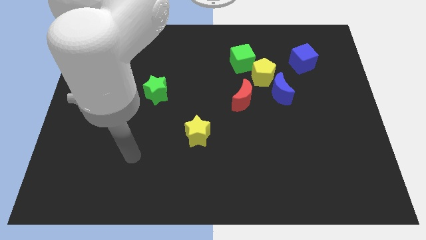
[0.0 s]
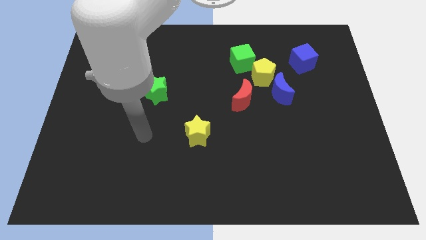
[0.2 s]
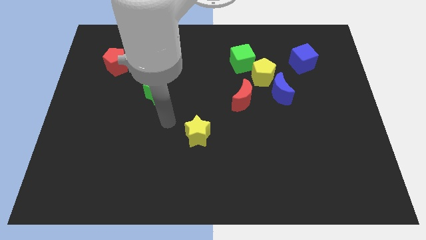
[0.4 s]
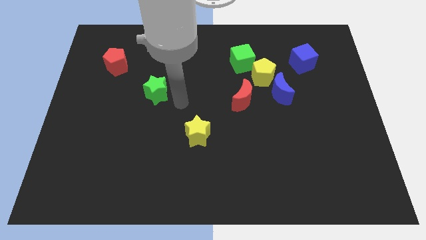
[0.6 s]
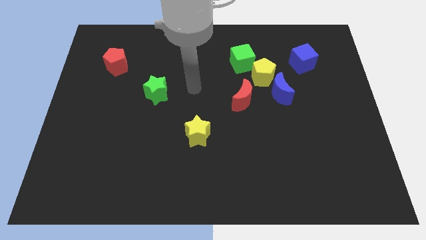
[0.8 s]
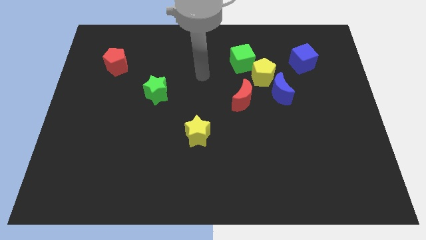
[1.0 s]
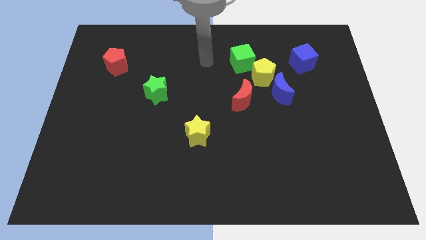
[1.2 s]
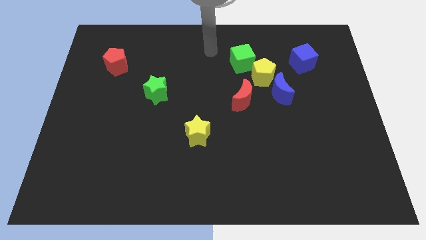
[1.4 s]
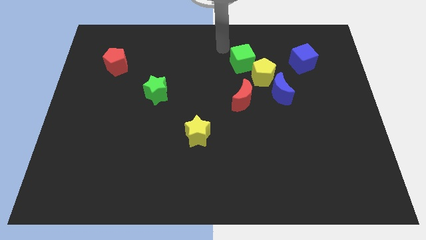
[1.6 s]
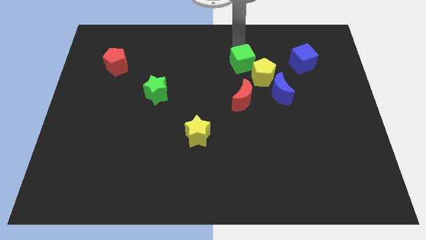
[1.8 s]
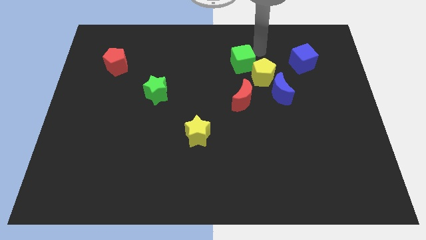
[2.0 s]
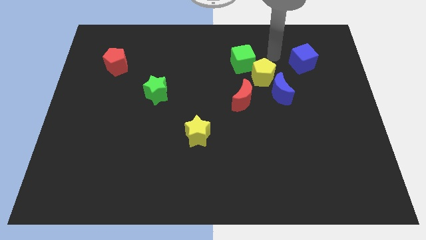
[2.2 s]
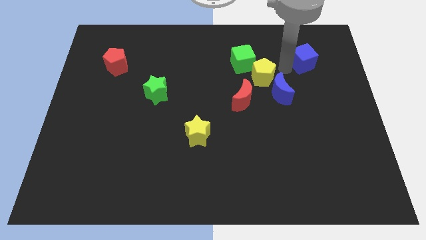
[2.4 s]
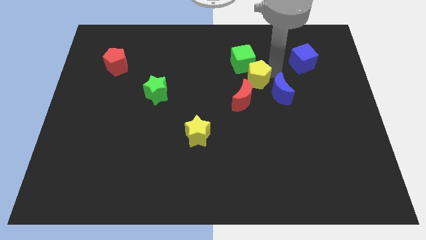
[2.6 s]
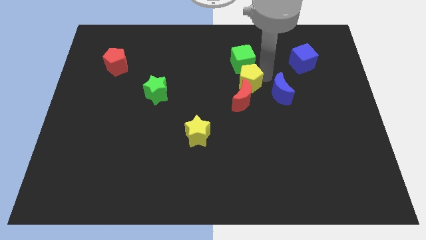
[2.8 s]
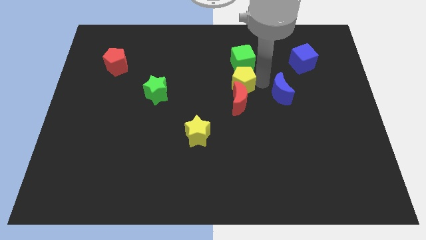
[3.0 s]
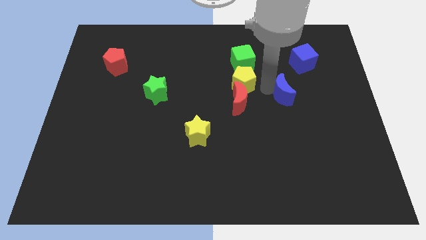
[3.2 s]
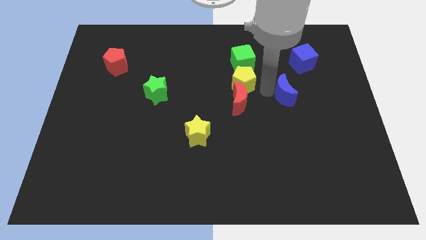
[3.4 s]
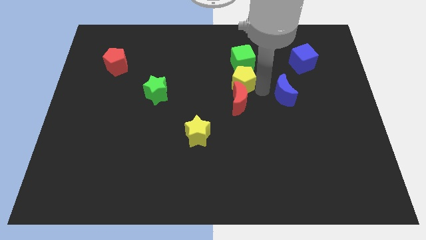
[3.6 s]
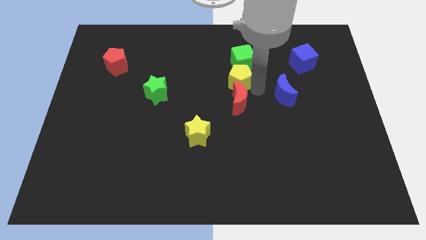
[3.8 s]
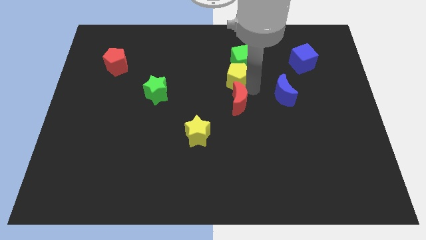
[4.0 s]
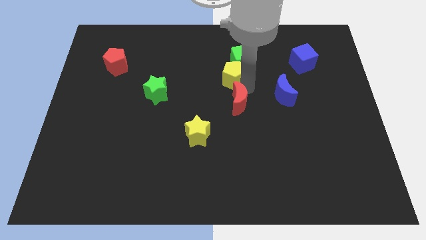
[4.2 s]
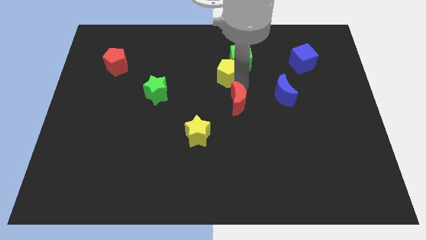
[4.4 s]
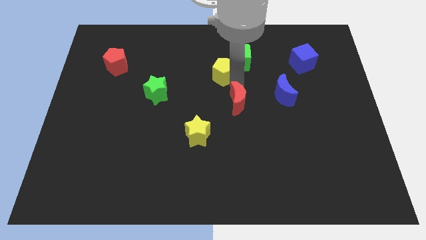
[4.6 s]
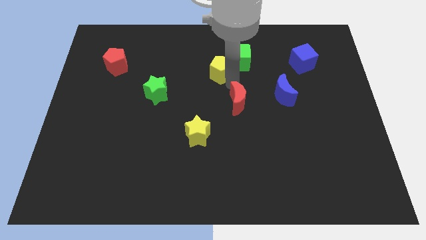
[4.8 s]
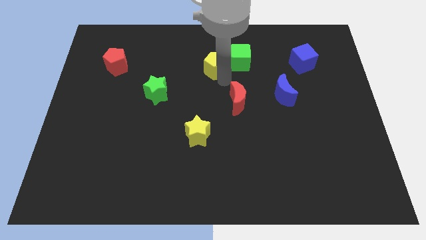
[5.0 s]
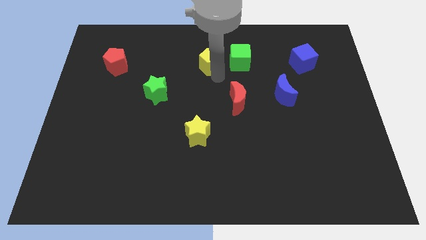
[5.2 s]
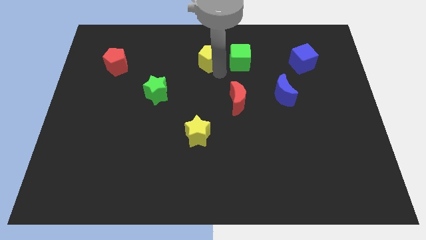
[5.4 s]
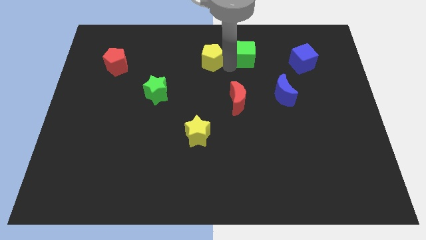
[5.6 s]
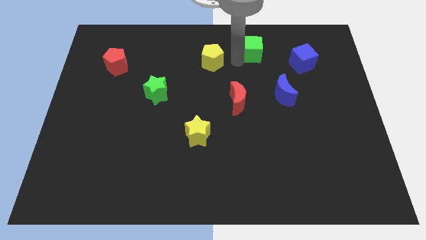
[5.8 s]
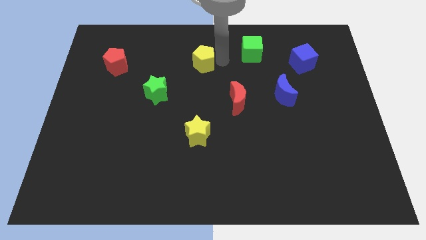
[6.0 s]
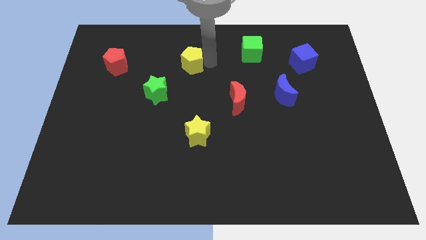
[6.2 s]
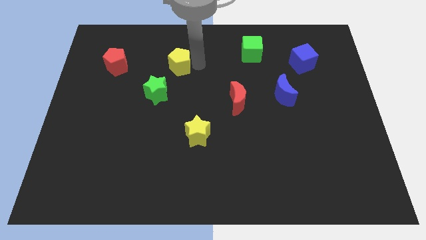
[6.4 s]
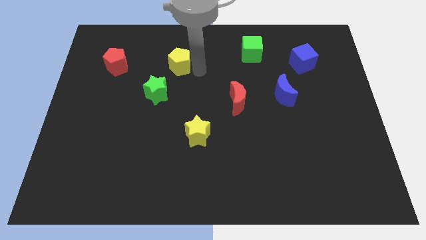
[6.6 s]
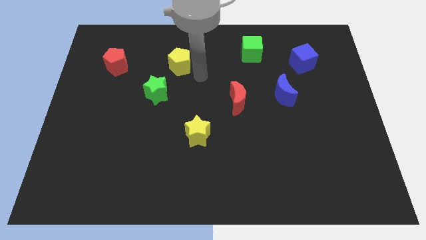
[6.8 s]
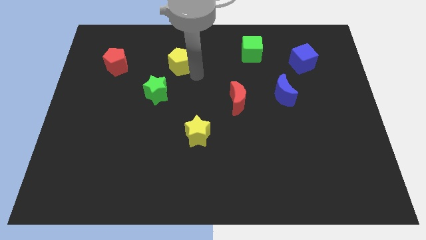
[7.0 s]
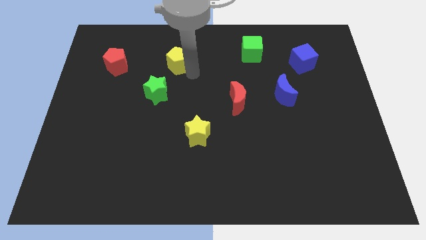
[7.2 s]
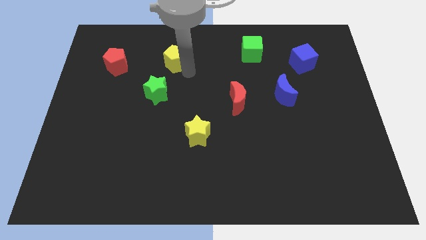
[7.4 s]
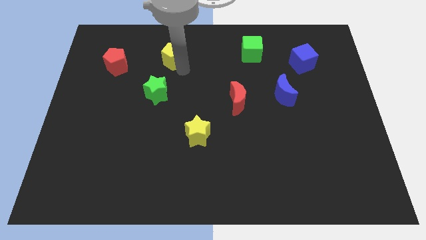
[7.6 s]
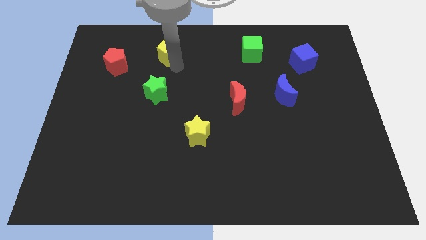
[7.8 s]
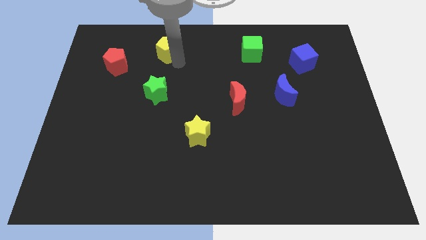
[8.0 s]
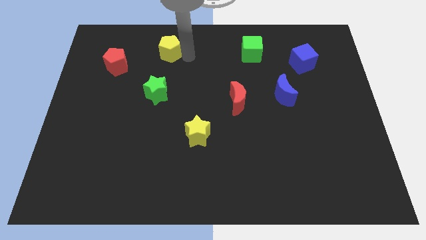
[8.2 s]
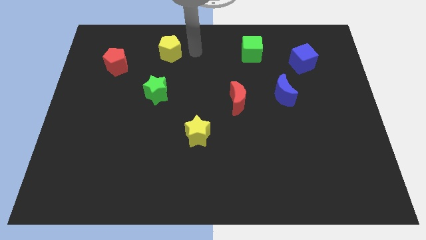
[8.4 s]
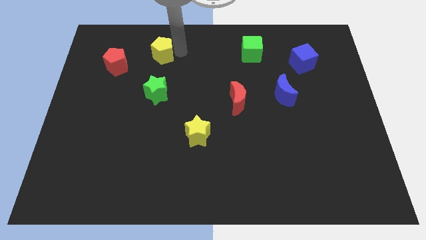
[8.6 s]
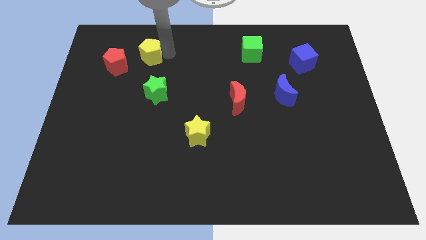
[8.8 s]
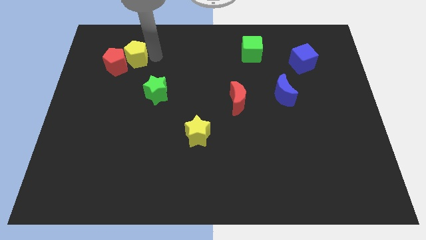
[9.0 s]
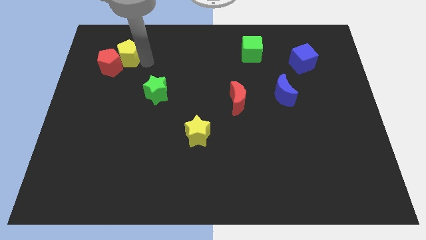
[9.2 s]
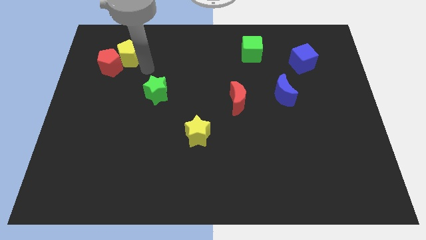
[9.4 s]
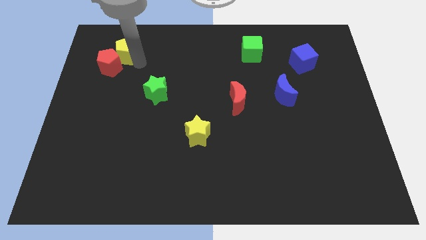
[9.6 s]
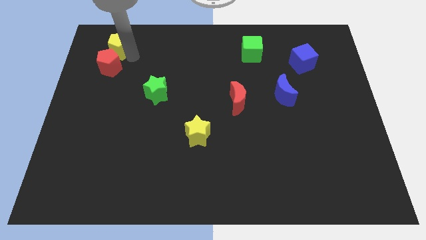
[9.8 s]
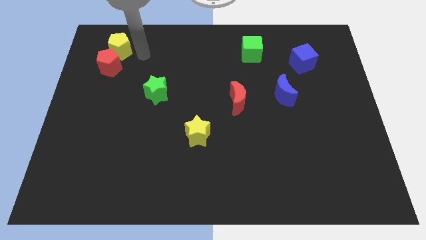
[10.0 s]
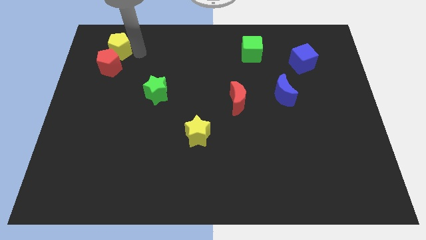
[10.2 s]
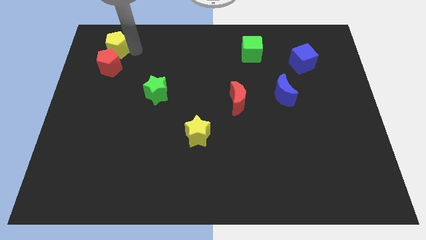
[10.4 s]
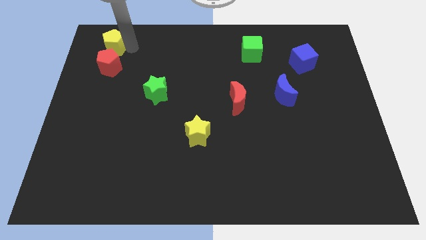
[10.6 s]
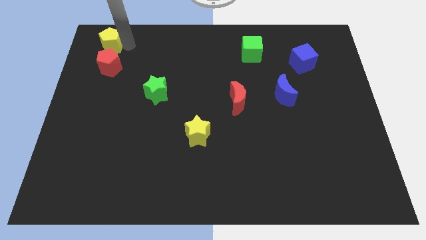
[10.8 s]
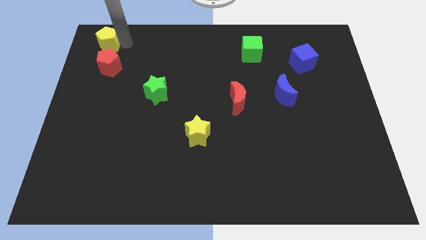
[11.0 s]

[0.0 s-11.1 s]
push the yellow pentagon to the top left

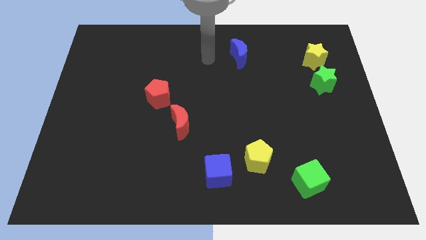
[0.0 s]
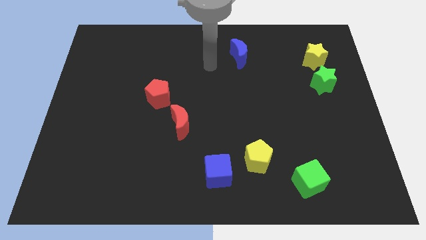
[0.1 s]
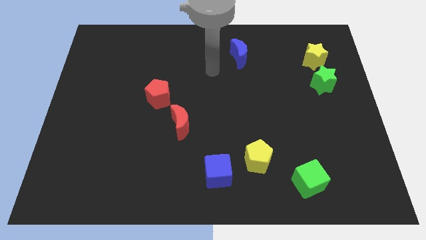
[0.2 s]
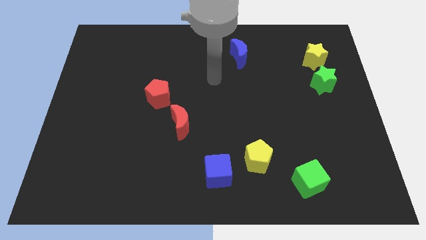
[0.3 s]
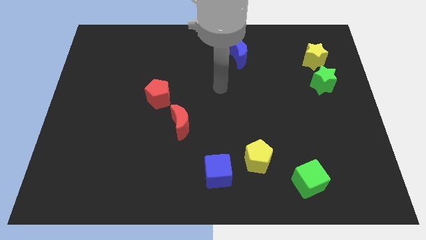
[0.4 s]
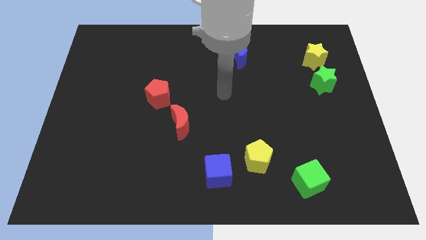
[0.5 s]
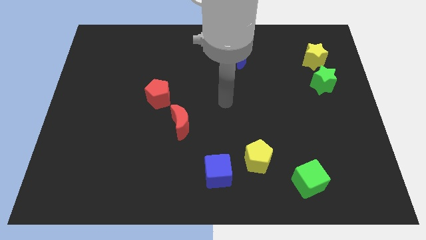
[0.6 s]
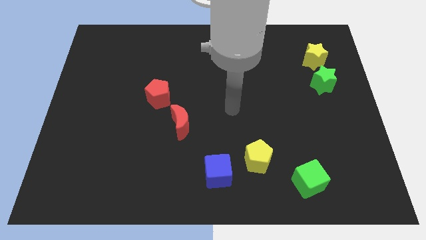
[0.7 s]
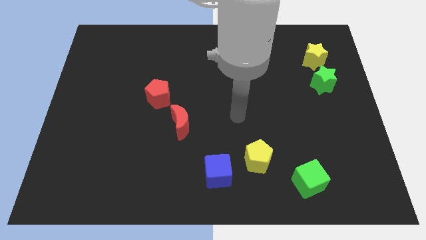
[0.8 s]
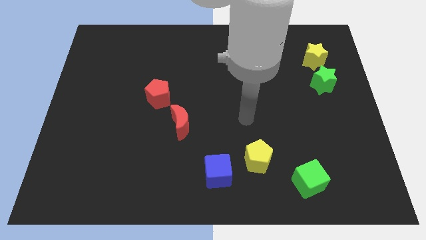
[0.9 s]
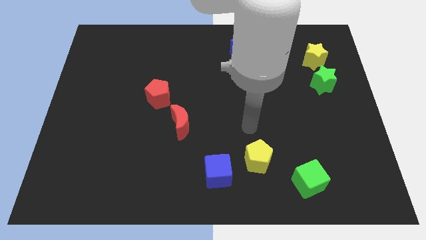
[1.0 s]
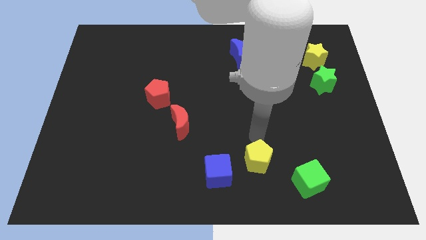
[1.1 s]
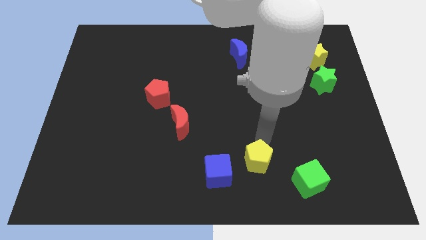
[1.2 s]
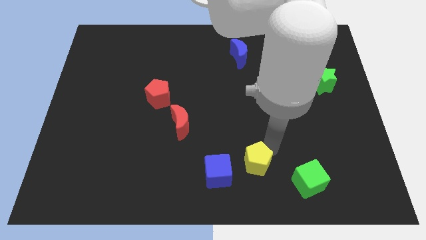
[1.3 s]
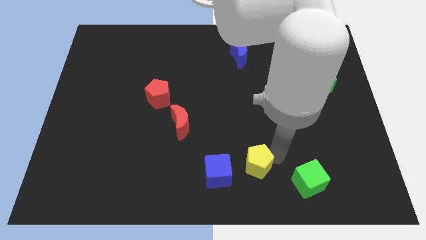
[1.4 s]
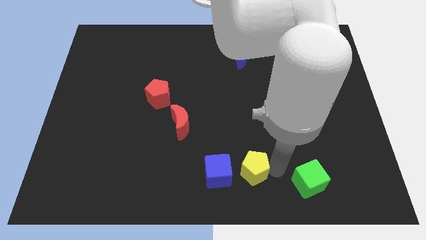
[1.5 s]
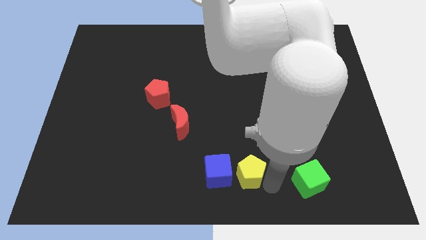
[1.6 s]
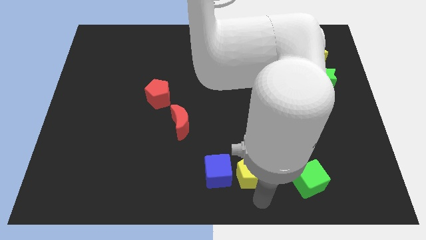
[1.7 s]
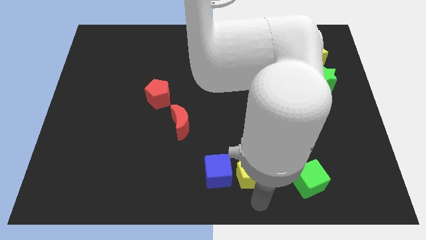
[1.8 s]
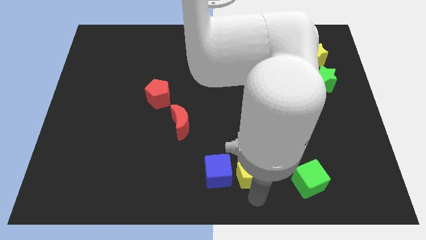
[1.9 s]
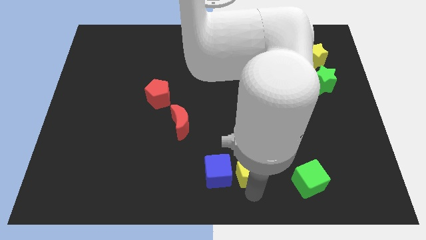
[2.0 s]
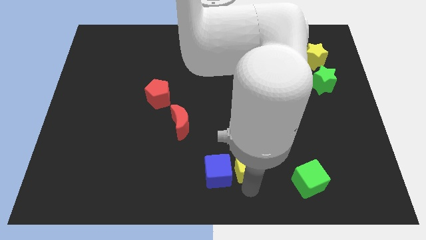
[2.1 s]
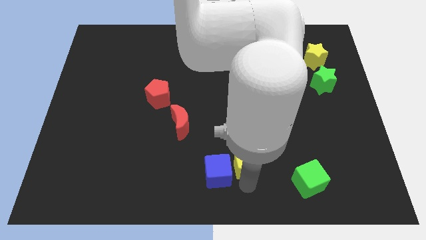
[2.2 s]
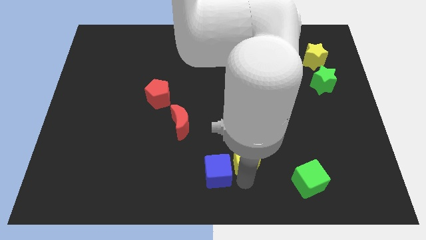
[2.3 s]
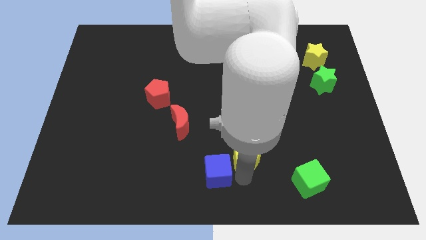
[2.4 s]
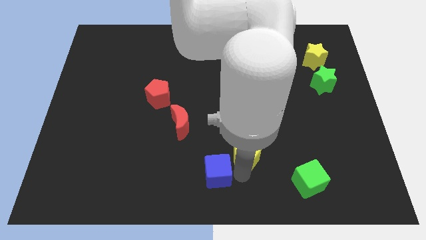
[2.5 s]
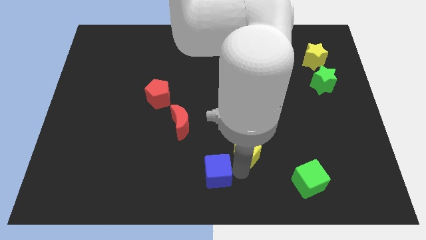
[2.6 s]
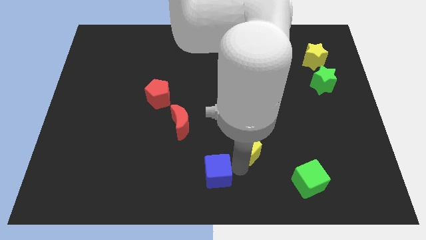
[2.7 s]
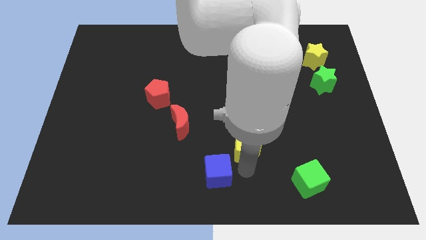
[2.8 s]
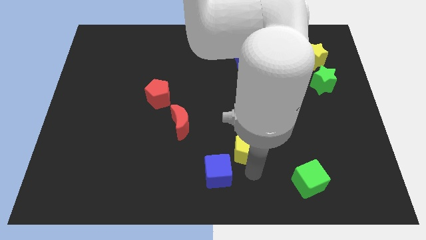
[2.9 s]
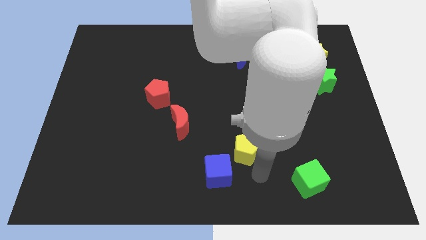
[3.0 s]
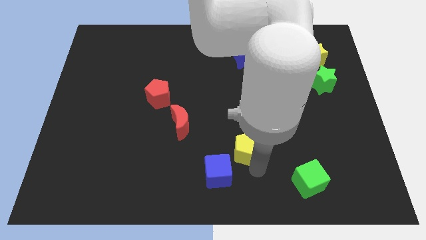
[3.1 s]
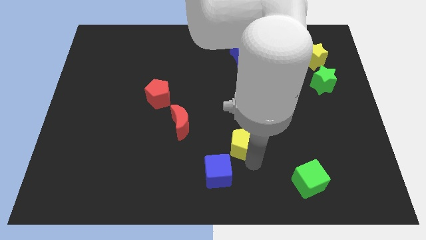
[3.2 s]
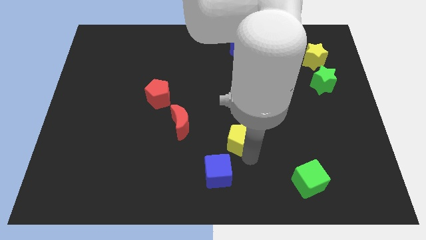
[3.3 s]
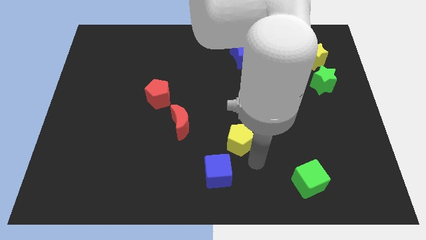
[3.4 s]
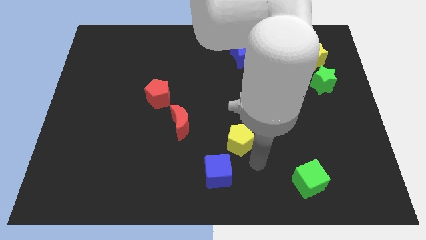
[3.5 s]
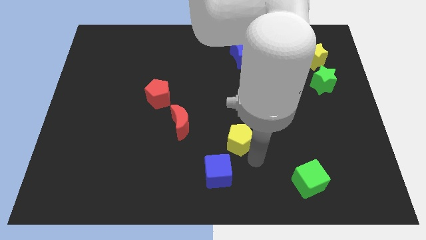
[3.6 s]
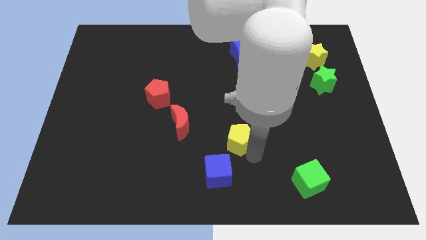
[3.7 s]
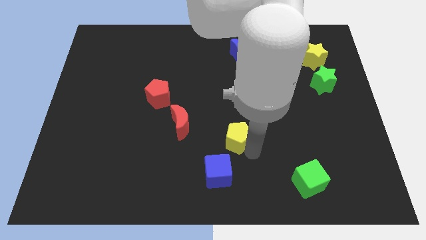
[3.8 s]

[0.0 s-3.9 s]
slide the yellow pentagon to the center
